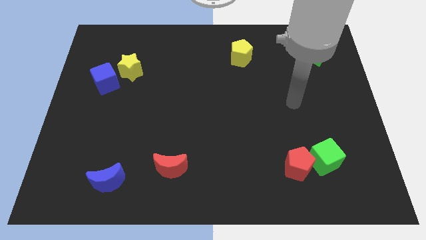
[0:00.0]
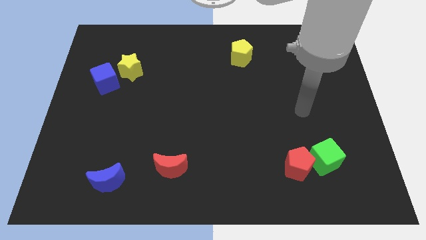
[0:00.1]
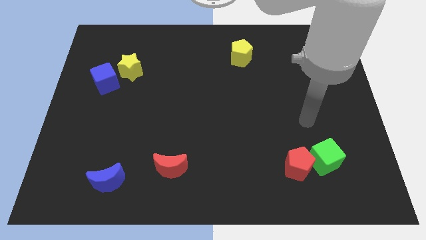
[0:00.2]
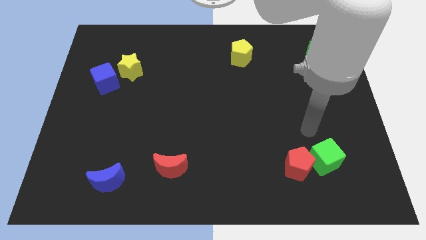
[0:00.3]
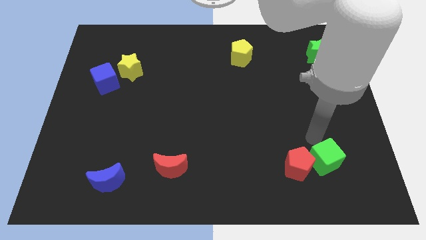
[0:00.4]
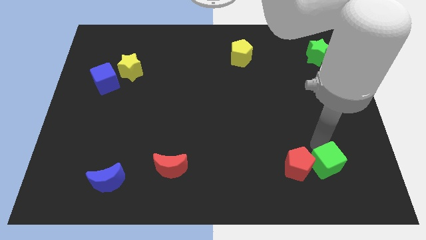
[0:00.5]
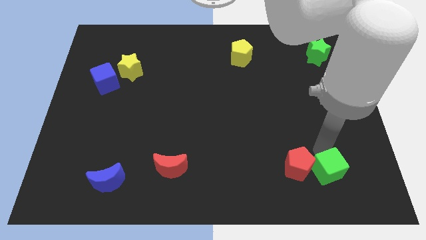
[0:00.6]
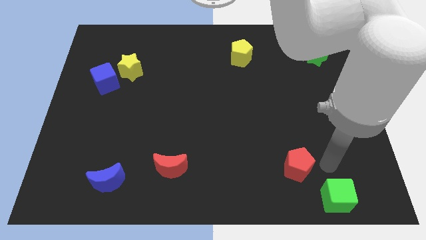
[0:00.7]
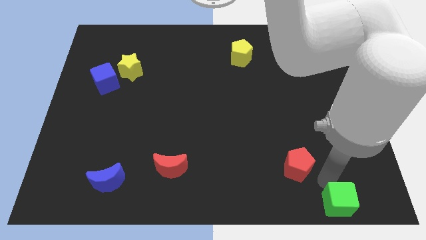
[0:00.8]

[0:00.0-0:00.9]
pull the red pentagon apart from the green cube

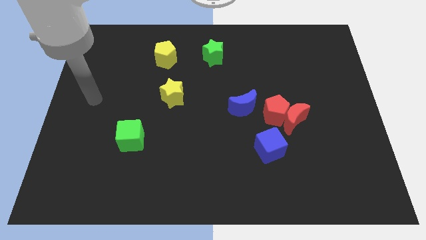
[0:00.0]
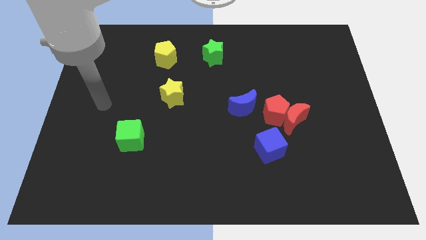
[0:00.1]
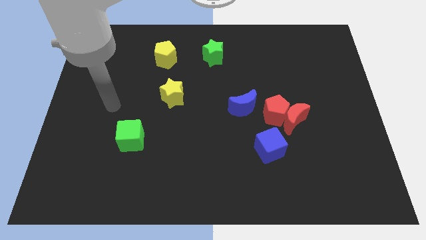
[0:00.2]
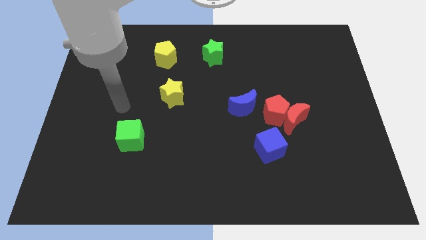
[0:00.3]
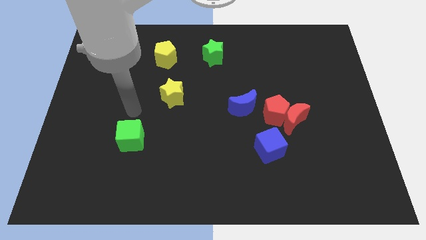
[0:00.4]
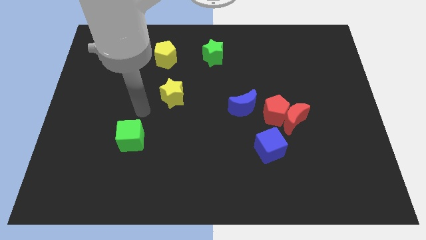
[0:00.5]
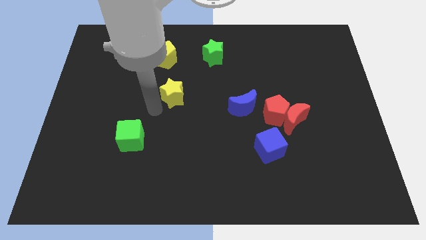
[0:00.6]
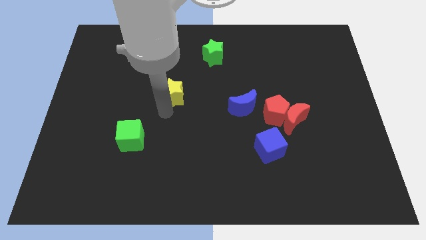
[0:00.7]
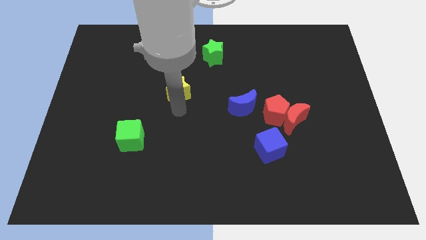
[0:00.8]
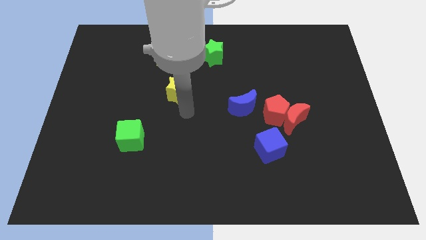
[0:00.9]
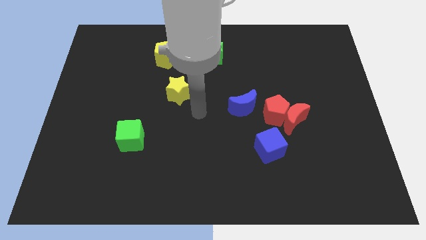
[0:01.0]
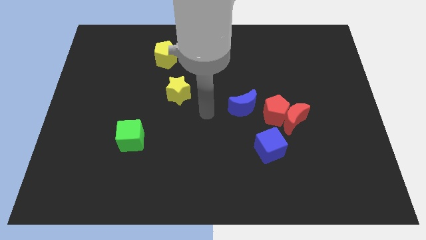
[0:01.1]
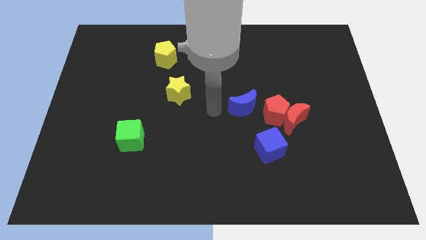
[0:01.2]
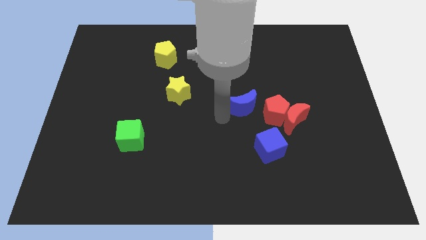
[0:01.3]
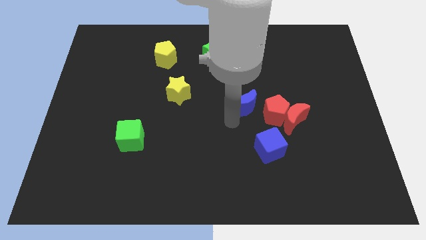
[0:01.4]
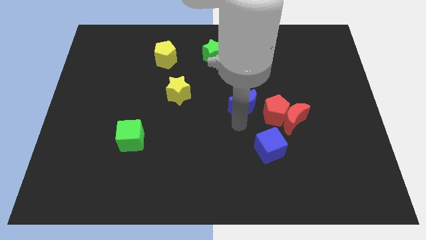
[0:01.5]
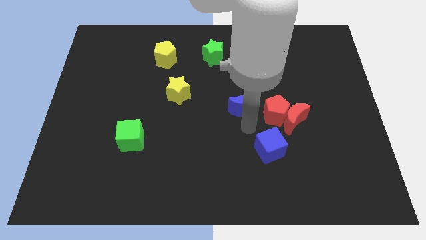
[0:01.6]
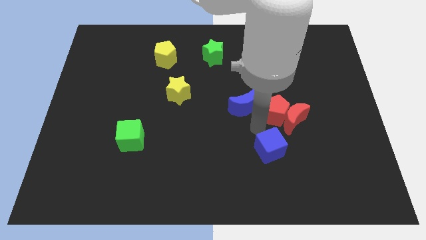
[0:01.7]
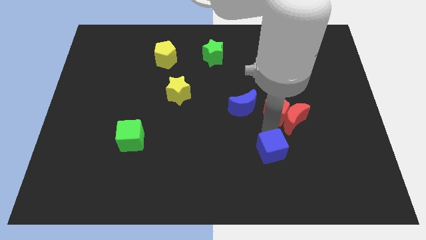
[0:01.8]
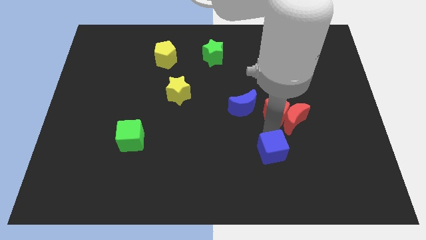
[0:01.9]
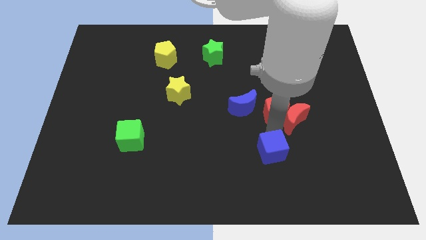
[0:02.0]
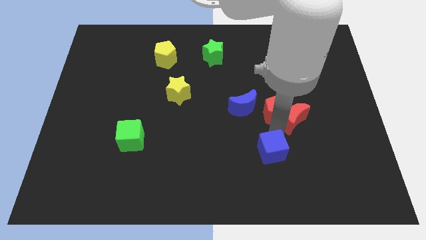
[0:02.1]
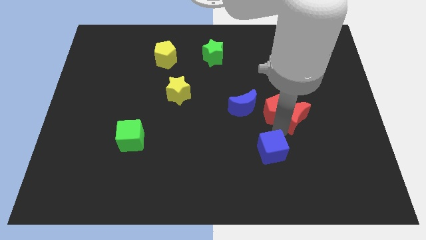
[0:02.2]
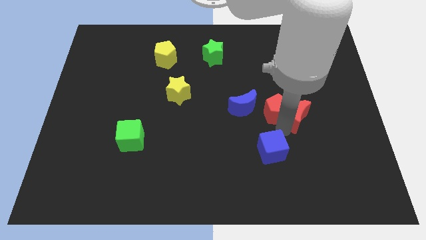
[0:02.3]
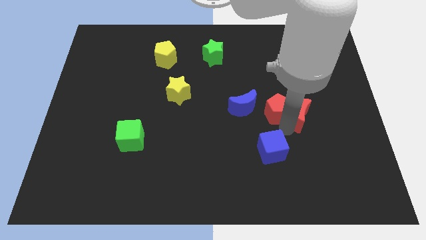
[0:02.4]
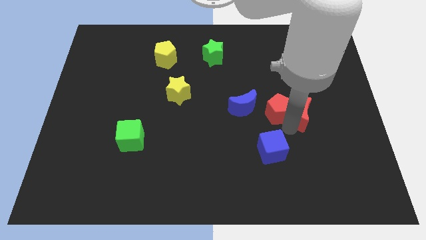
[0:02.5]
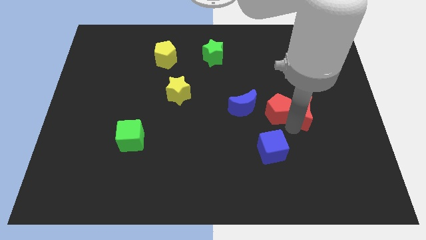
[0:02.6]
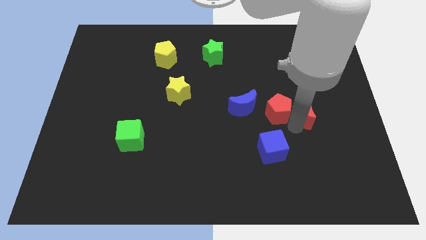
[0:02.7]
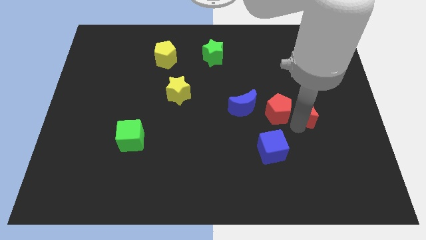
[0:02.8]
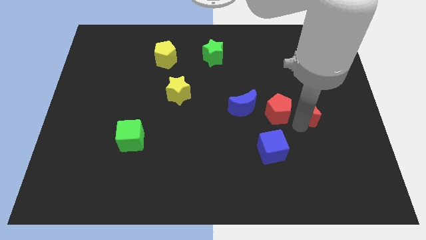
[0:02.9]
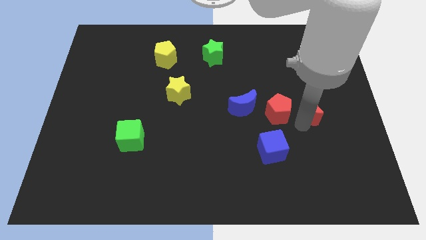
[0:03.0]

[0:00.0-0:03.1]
separate the red moon from the red pentagon and blue cube

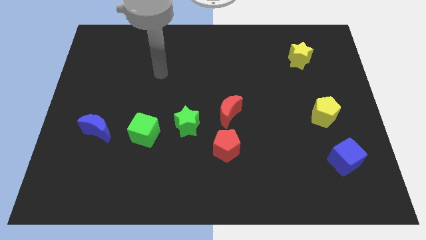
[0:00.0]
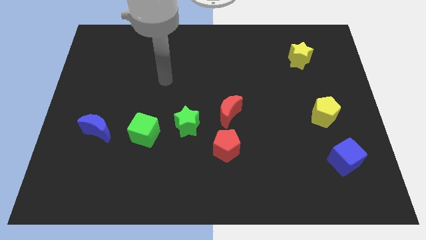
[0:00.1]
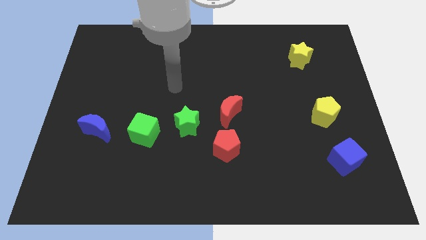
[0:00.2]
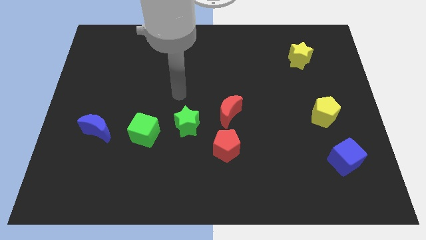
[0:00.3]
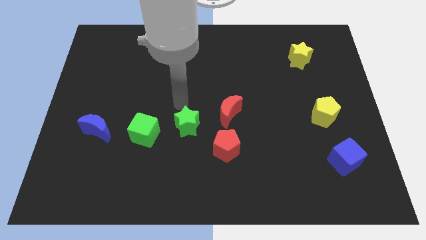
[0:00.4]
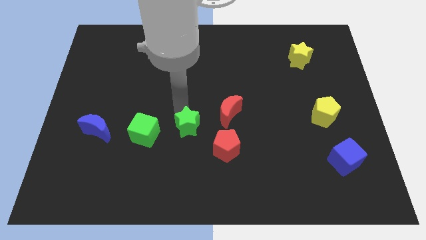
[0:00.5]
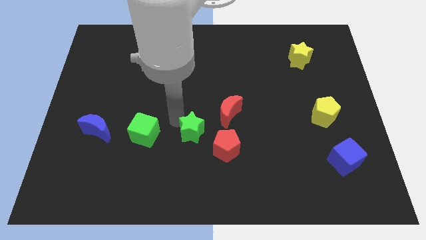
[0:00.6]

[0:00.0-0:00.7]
move the green cube away from the green star

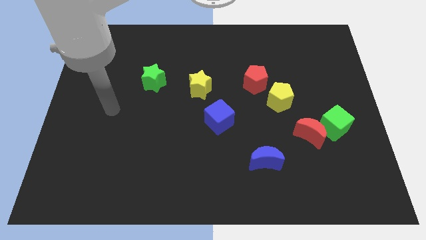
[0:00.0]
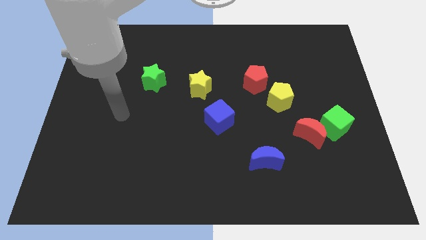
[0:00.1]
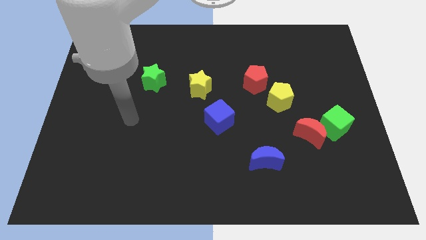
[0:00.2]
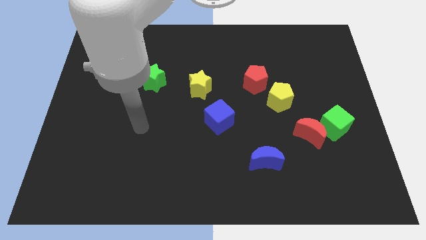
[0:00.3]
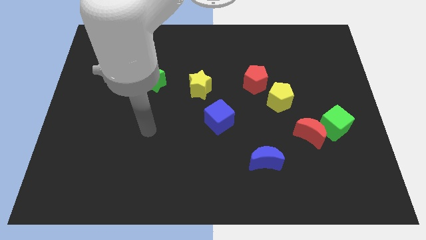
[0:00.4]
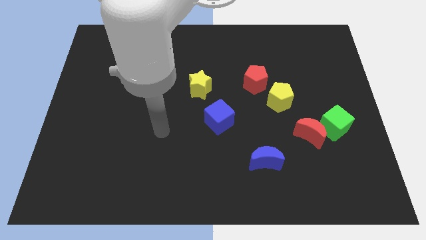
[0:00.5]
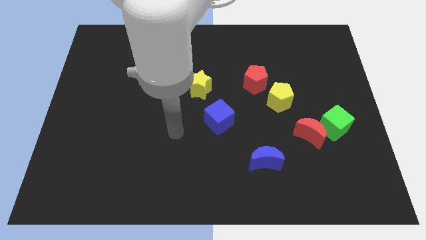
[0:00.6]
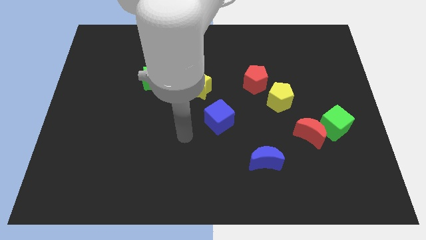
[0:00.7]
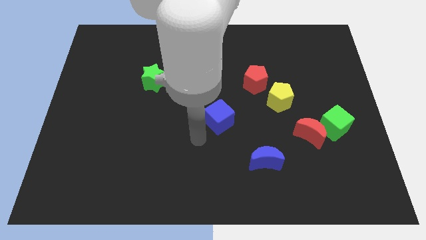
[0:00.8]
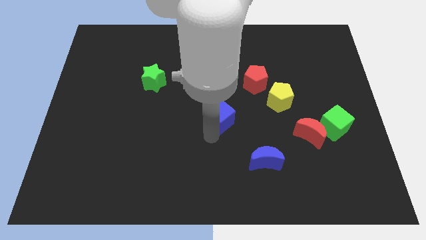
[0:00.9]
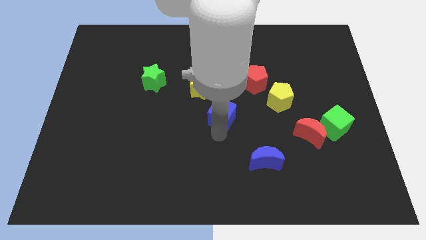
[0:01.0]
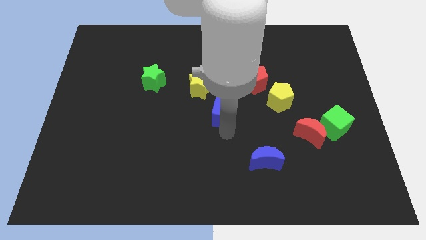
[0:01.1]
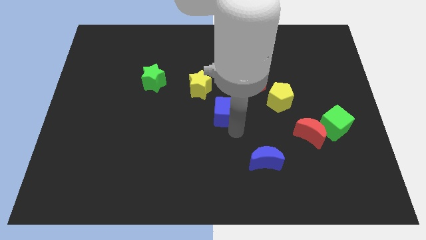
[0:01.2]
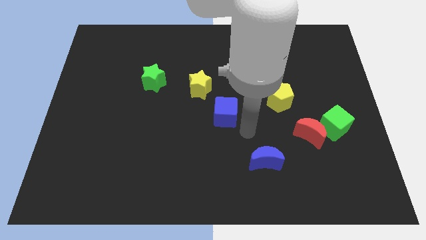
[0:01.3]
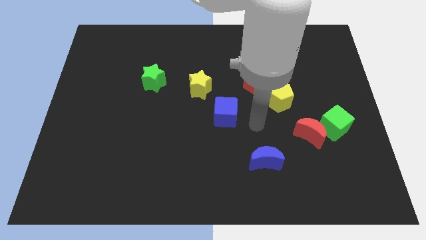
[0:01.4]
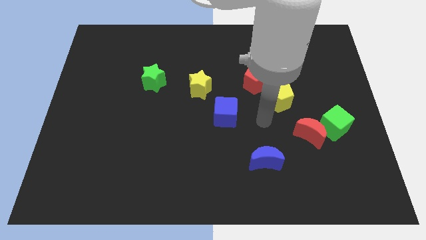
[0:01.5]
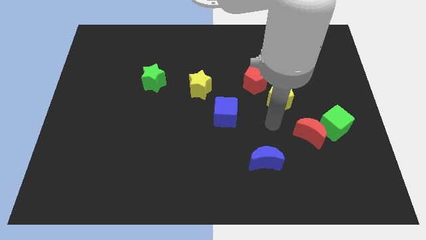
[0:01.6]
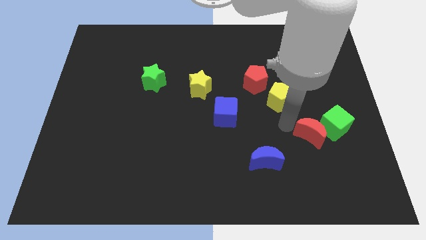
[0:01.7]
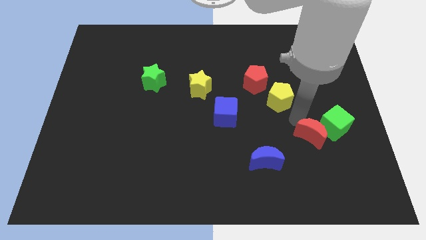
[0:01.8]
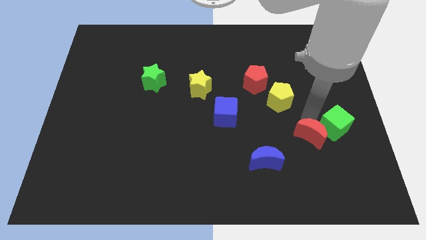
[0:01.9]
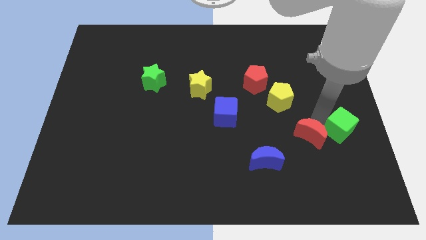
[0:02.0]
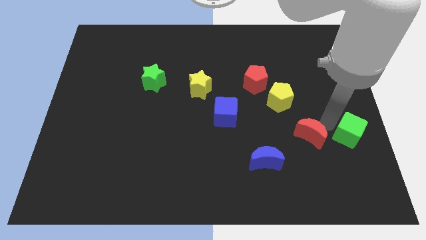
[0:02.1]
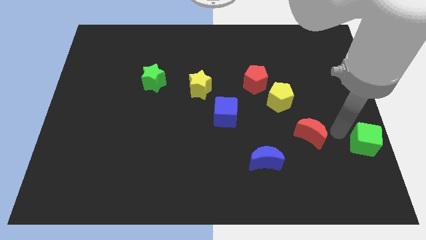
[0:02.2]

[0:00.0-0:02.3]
move the red moon away from the green cube

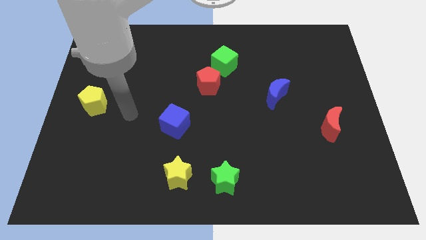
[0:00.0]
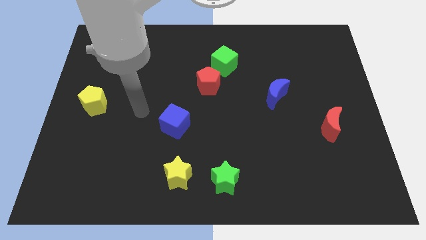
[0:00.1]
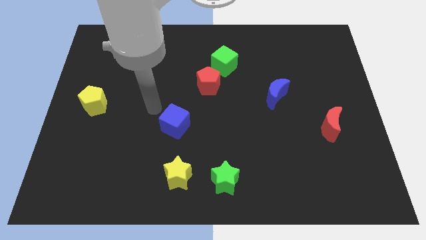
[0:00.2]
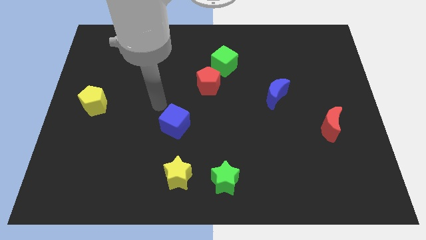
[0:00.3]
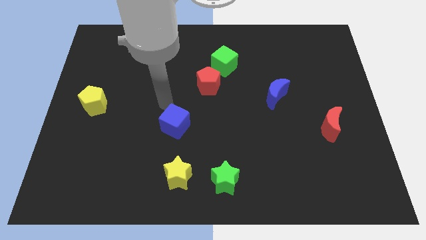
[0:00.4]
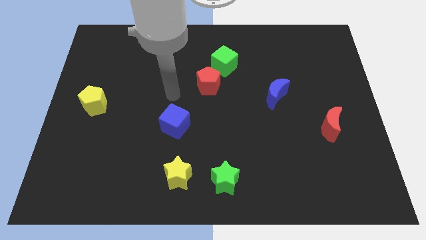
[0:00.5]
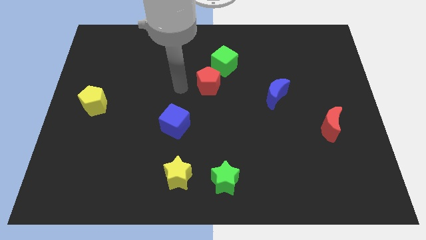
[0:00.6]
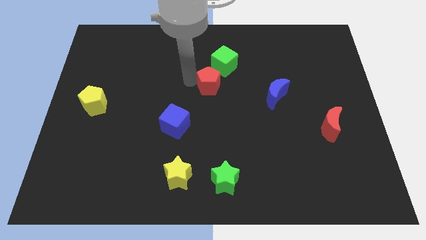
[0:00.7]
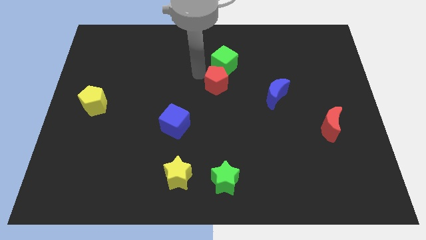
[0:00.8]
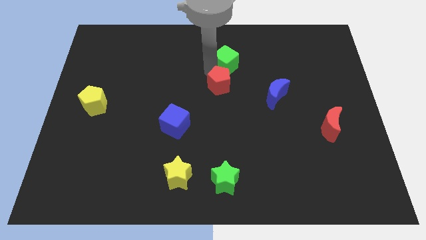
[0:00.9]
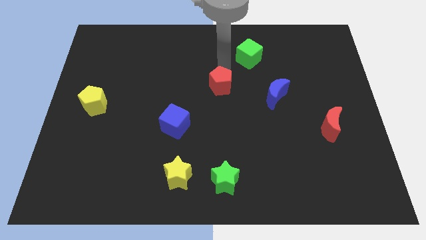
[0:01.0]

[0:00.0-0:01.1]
move the red pentagon away from the green cube

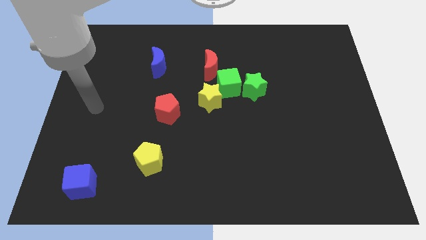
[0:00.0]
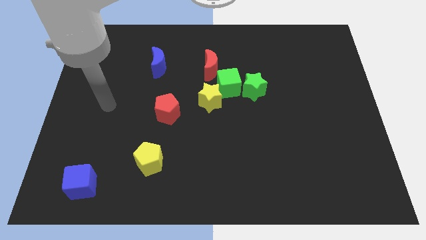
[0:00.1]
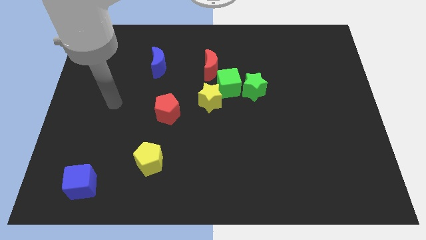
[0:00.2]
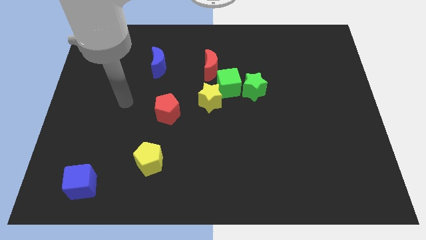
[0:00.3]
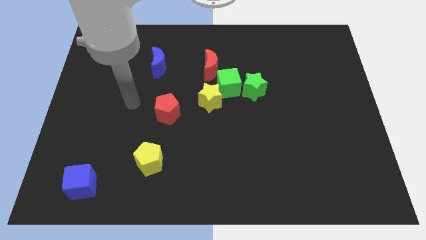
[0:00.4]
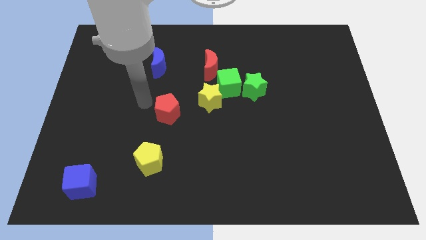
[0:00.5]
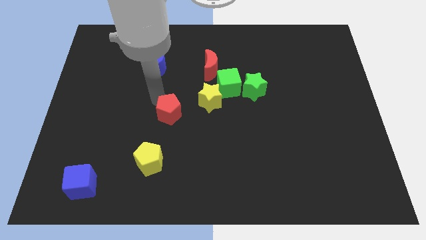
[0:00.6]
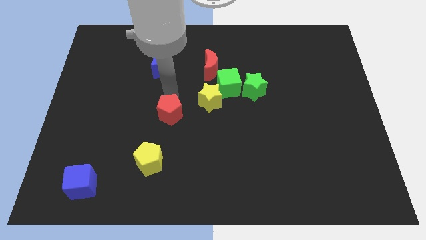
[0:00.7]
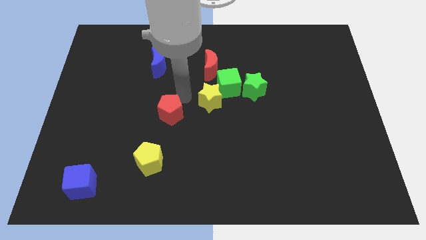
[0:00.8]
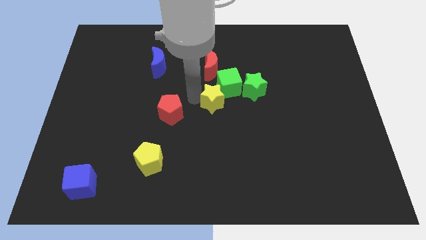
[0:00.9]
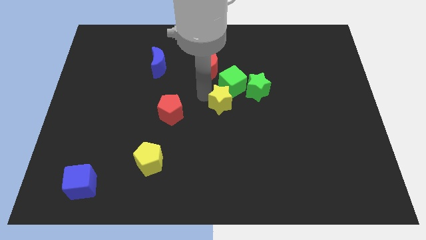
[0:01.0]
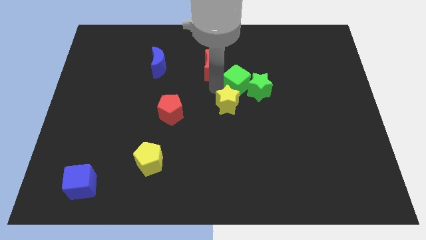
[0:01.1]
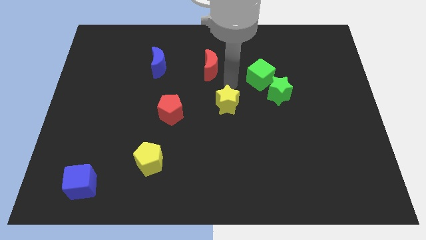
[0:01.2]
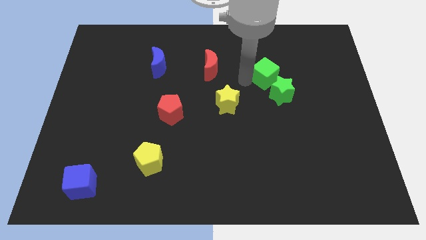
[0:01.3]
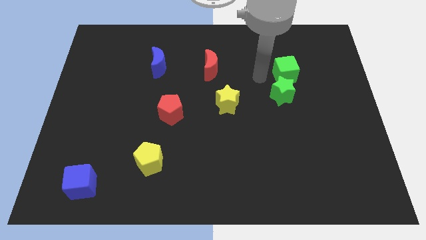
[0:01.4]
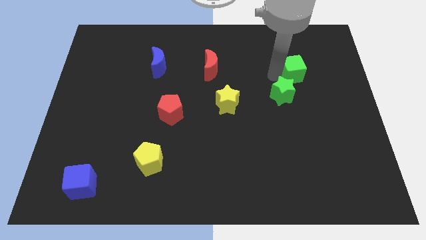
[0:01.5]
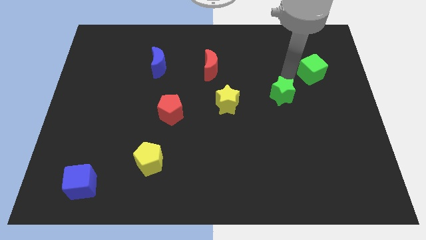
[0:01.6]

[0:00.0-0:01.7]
move the green star away from the green cube
